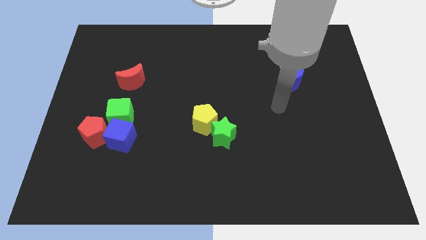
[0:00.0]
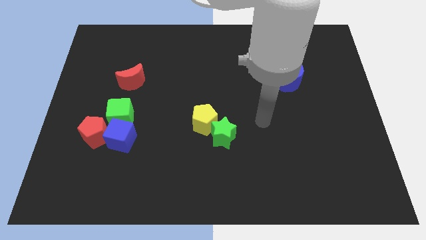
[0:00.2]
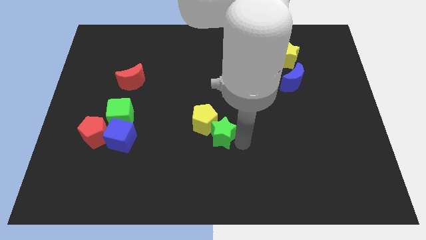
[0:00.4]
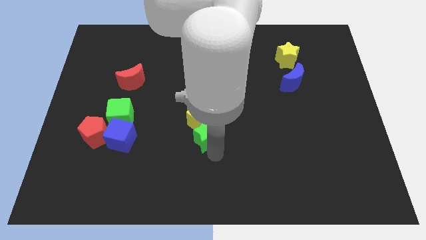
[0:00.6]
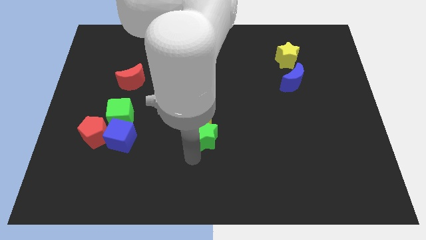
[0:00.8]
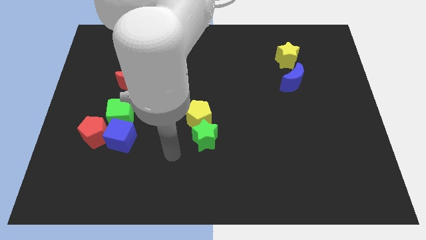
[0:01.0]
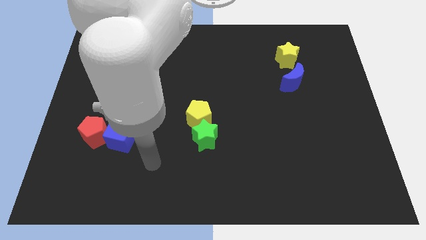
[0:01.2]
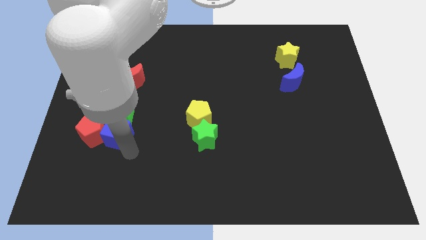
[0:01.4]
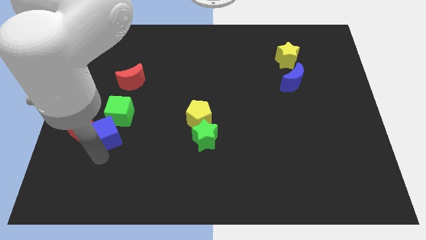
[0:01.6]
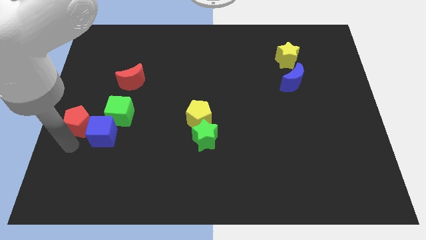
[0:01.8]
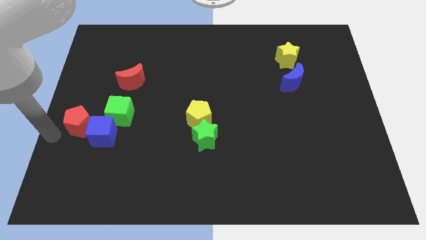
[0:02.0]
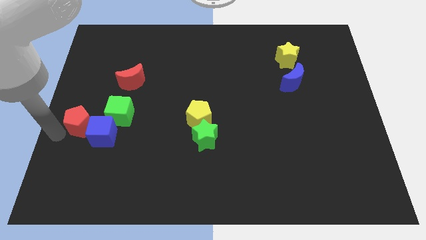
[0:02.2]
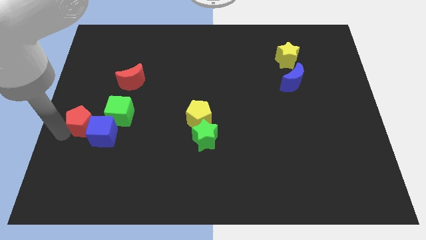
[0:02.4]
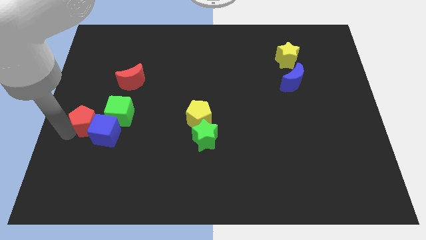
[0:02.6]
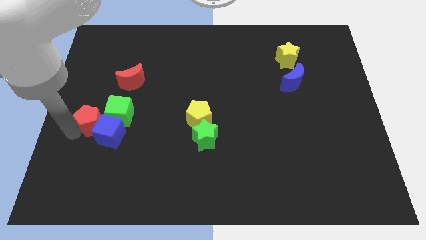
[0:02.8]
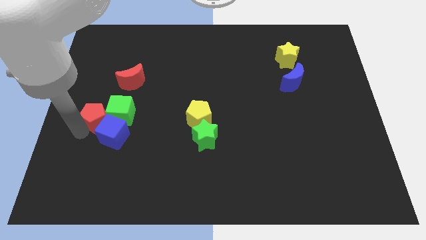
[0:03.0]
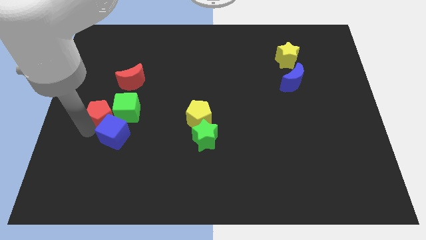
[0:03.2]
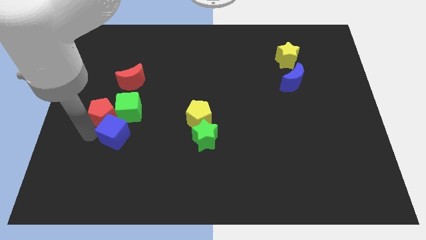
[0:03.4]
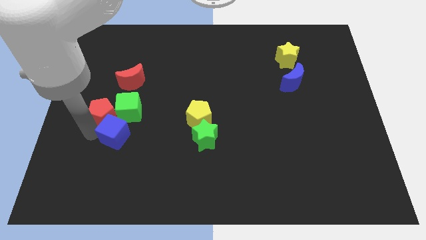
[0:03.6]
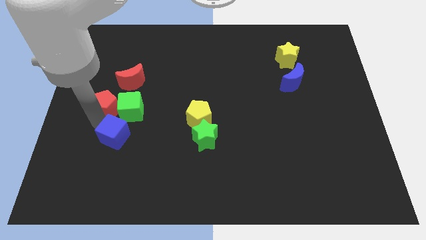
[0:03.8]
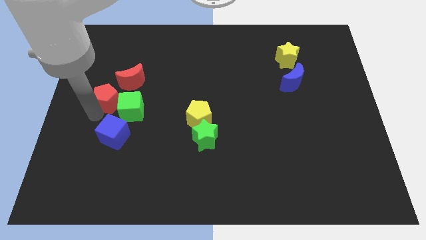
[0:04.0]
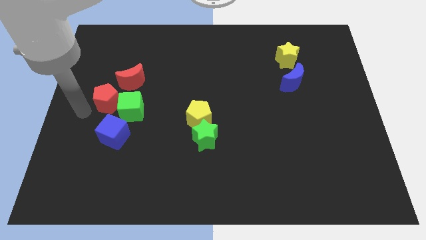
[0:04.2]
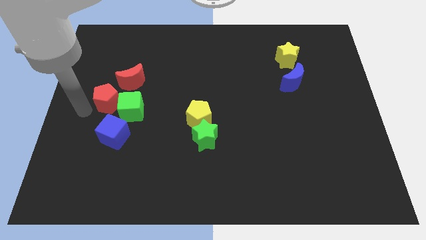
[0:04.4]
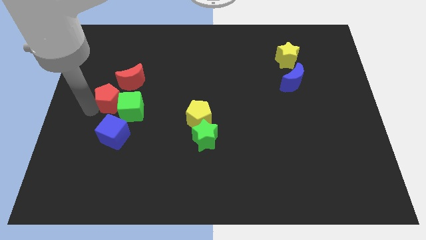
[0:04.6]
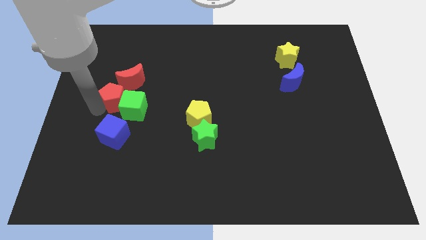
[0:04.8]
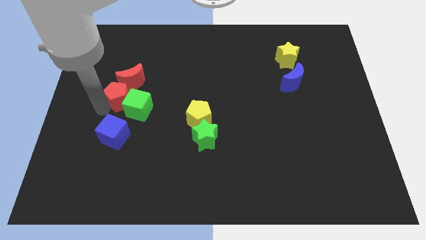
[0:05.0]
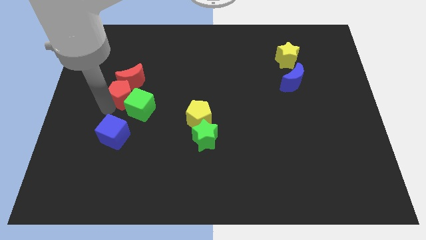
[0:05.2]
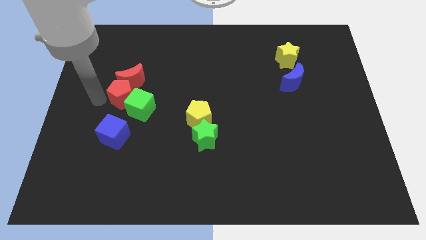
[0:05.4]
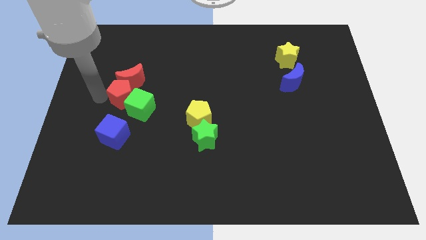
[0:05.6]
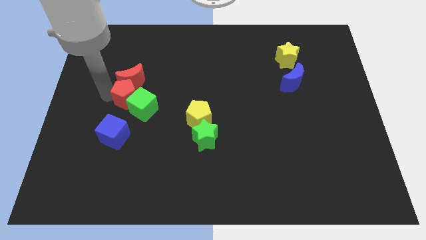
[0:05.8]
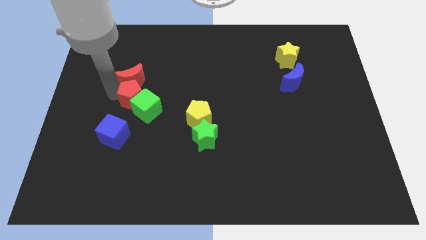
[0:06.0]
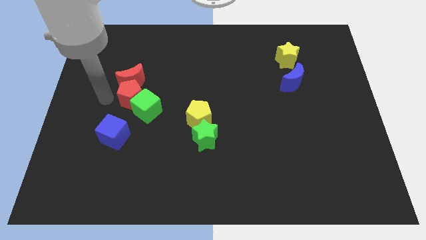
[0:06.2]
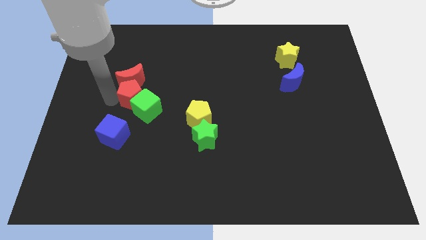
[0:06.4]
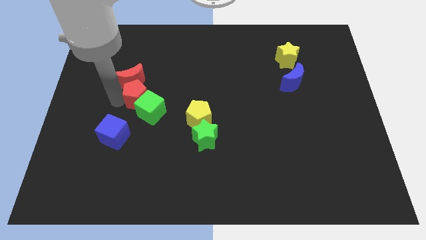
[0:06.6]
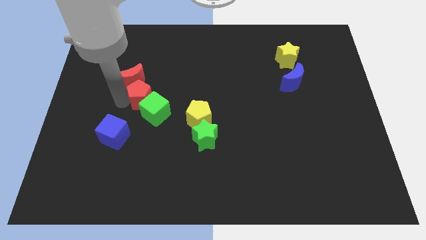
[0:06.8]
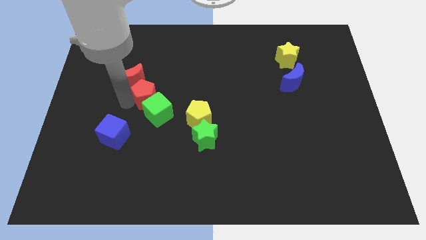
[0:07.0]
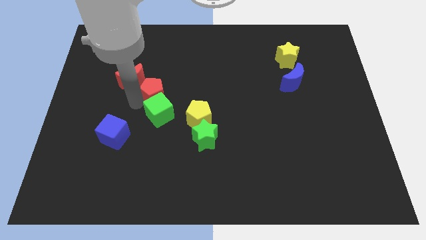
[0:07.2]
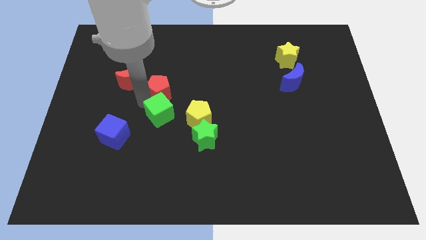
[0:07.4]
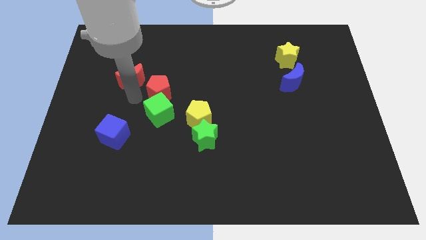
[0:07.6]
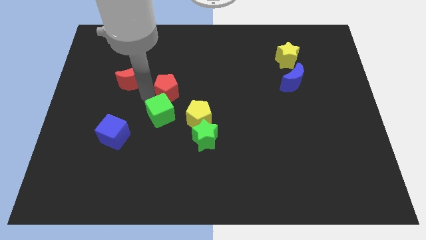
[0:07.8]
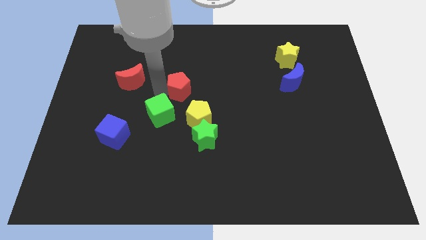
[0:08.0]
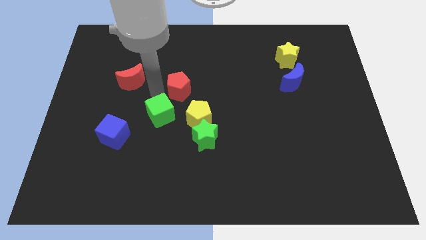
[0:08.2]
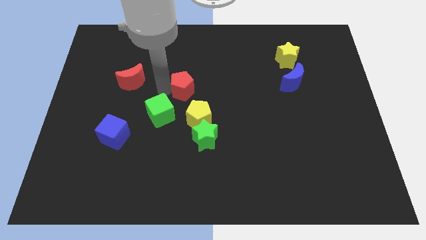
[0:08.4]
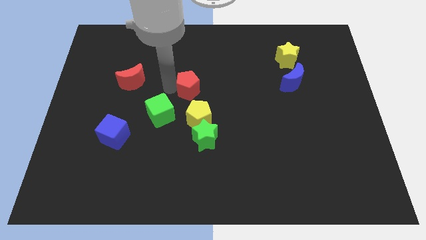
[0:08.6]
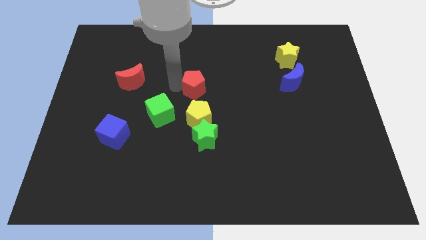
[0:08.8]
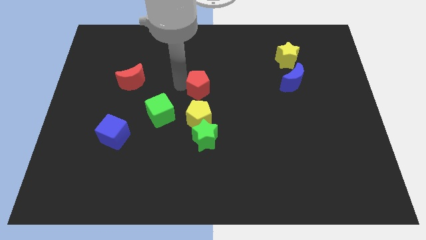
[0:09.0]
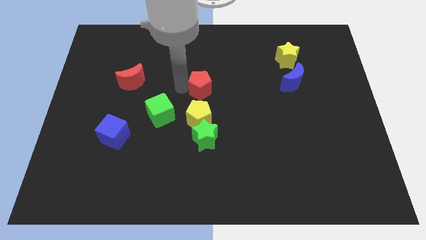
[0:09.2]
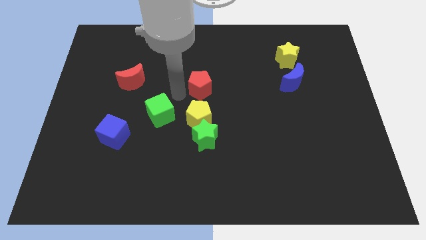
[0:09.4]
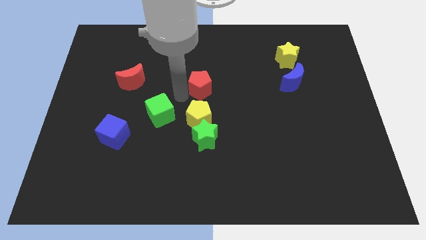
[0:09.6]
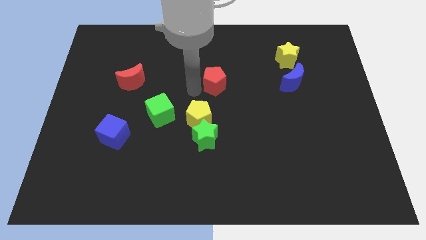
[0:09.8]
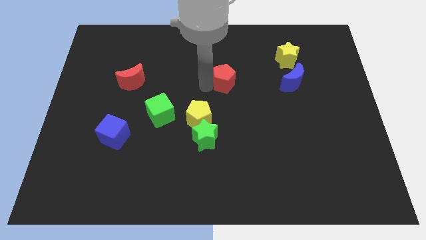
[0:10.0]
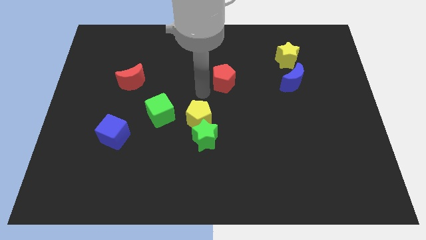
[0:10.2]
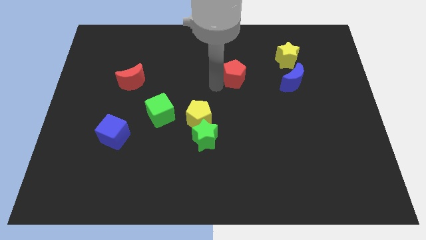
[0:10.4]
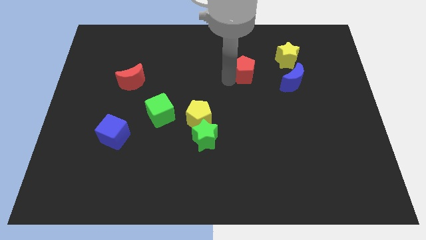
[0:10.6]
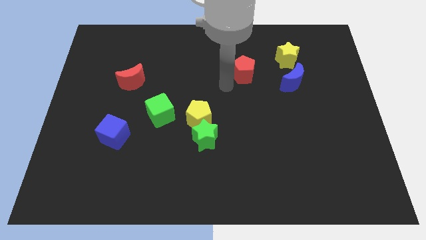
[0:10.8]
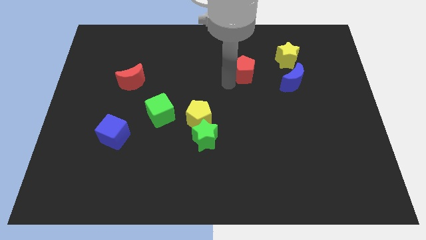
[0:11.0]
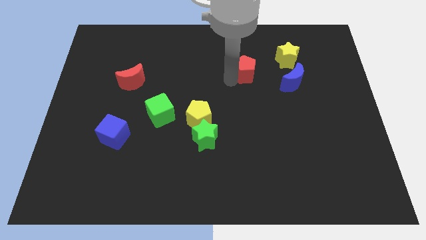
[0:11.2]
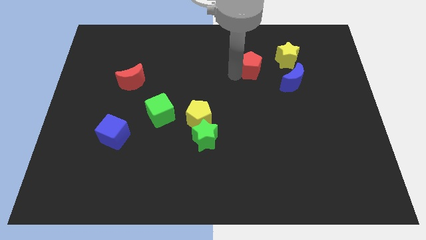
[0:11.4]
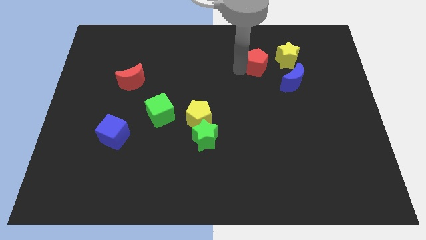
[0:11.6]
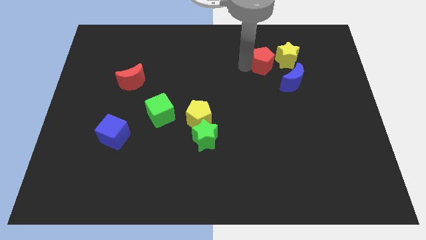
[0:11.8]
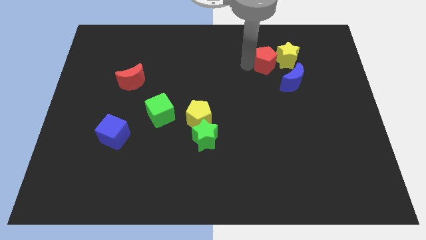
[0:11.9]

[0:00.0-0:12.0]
put the red pentagon to the yellow star
